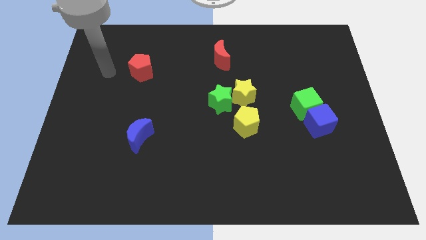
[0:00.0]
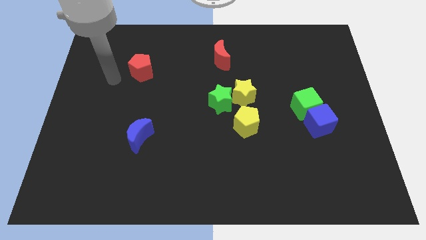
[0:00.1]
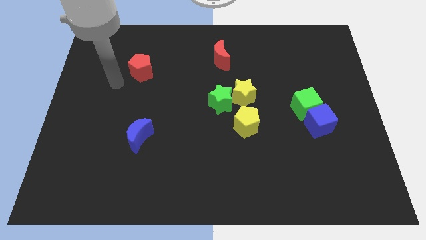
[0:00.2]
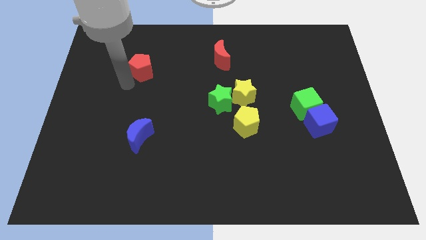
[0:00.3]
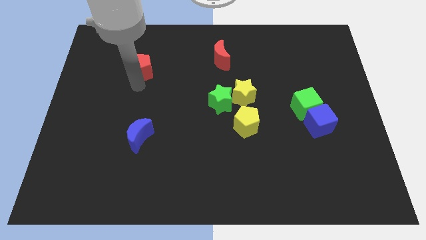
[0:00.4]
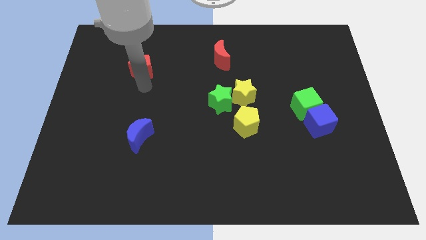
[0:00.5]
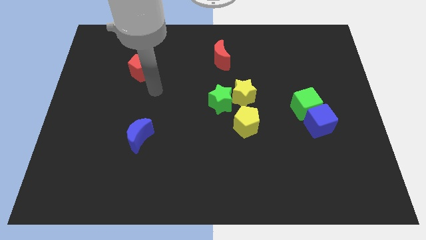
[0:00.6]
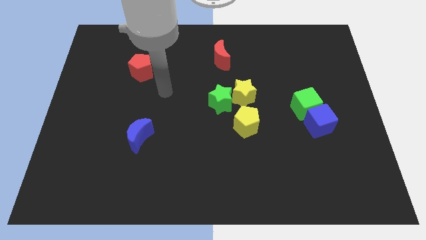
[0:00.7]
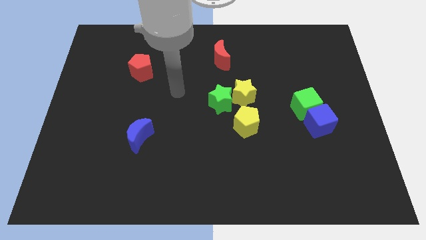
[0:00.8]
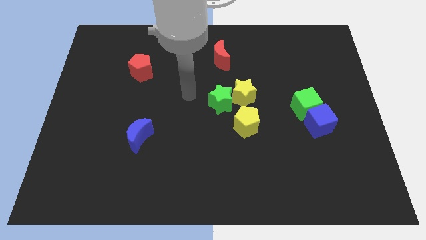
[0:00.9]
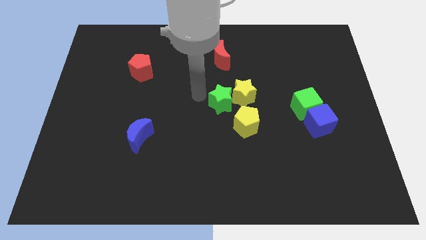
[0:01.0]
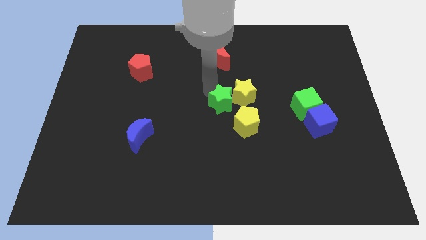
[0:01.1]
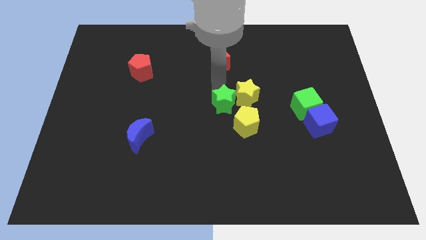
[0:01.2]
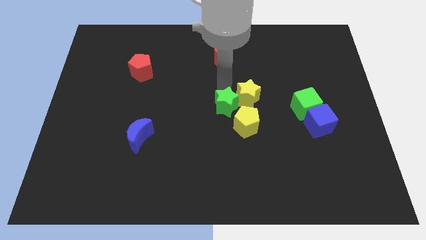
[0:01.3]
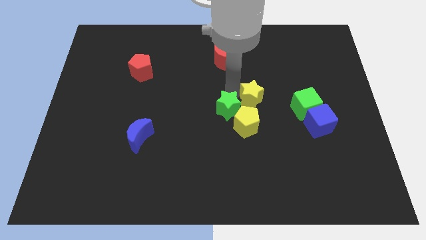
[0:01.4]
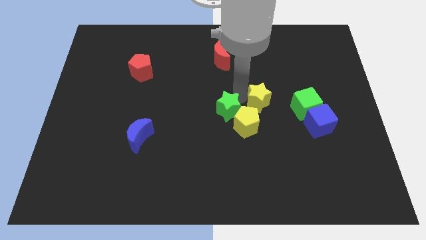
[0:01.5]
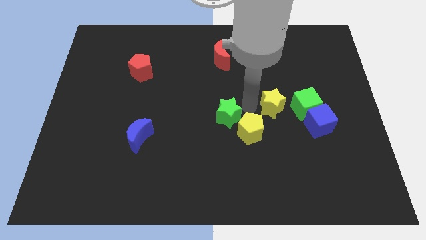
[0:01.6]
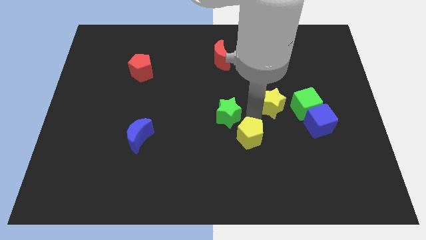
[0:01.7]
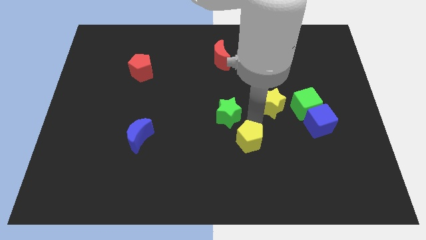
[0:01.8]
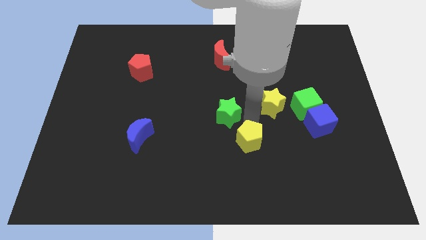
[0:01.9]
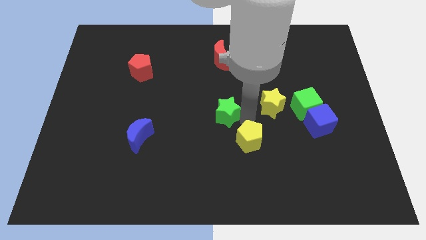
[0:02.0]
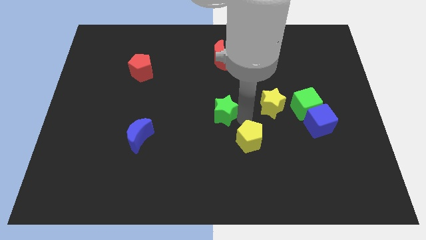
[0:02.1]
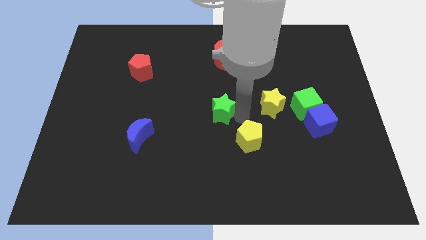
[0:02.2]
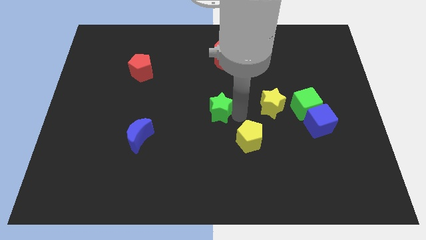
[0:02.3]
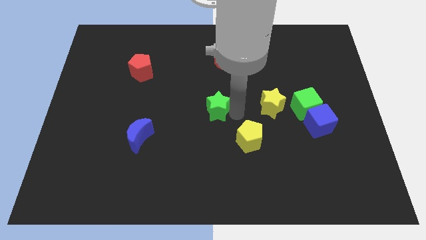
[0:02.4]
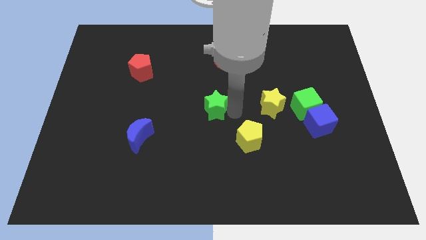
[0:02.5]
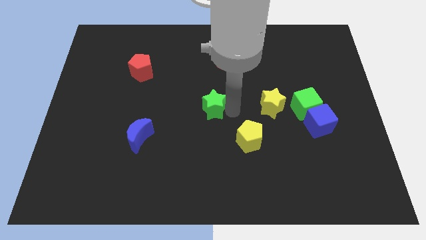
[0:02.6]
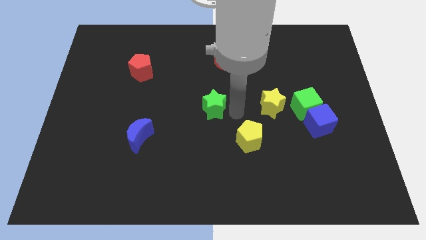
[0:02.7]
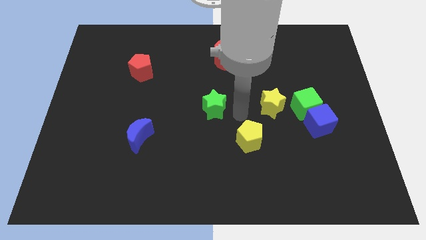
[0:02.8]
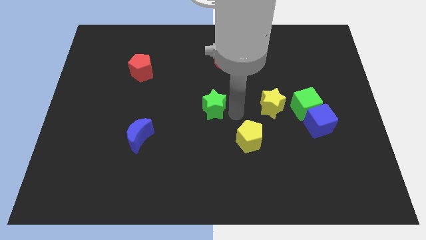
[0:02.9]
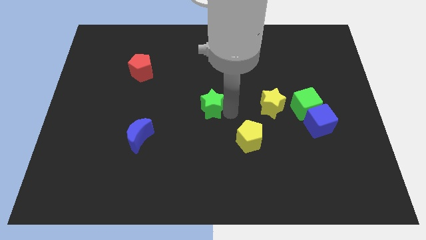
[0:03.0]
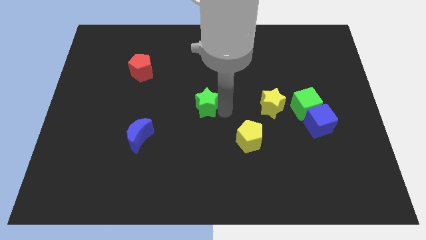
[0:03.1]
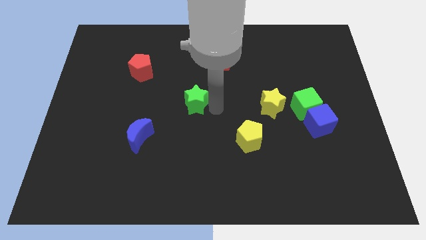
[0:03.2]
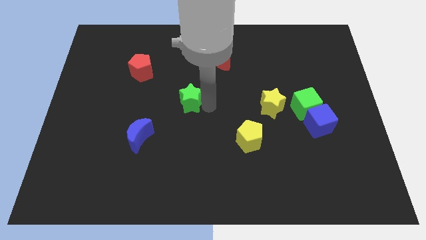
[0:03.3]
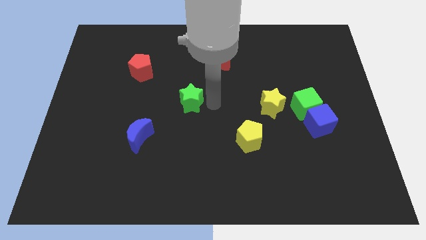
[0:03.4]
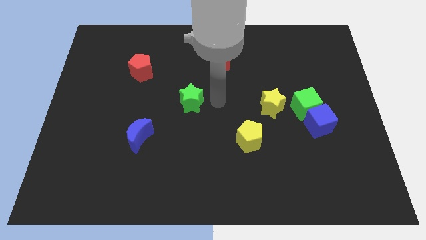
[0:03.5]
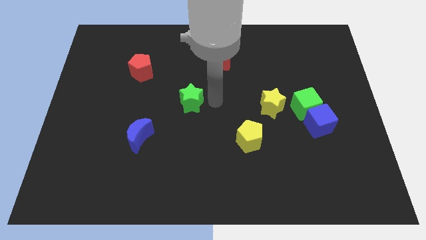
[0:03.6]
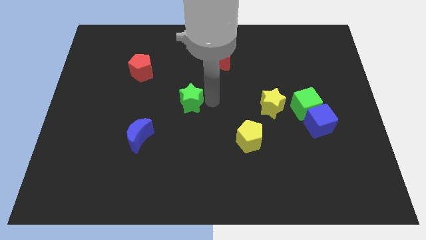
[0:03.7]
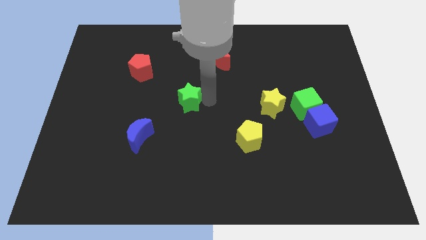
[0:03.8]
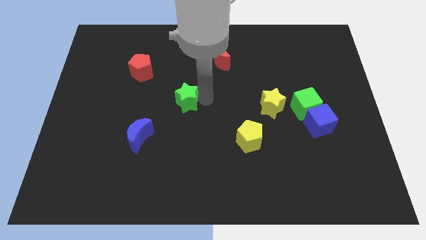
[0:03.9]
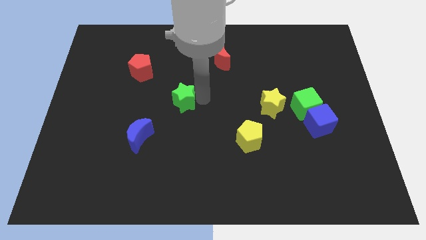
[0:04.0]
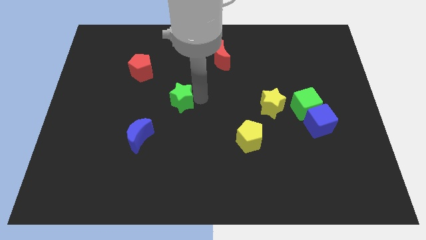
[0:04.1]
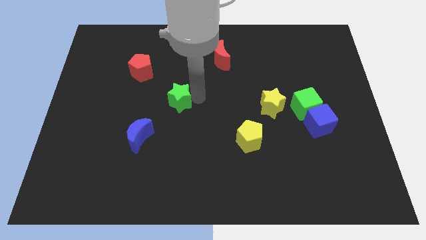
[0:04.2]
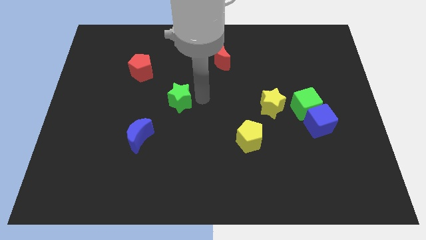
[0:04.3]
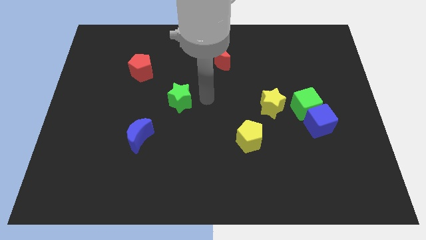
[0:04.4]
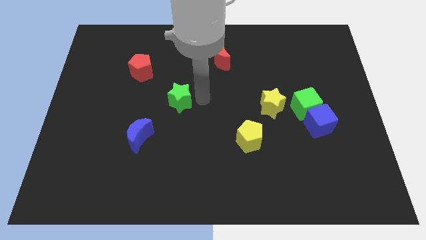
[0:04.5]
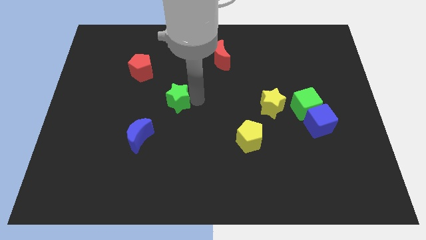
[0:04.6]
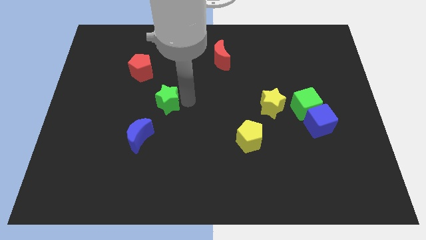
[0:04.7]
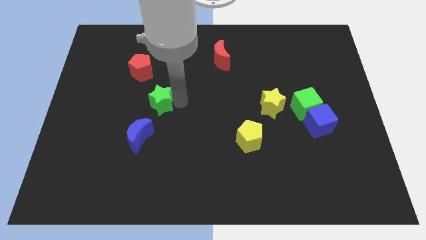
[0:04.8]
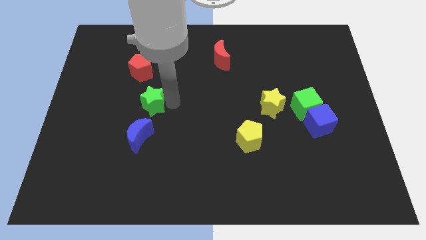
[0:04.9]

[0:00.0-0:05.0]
push the green star below the red pentagon

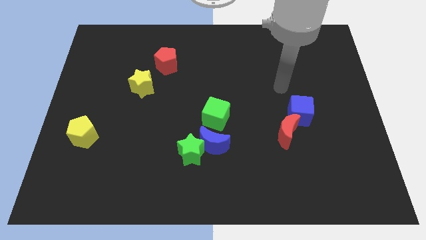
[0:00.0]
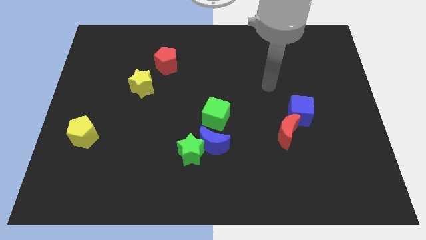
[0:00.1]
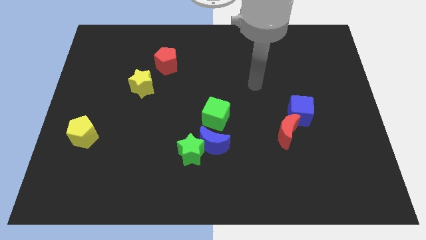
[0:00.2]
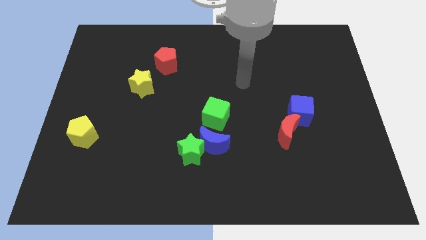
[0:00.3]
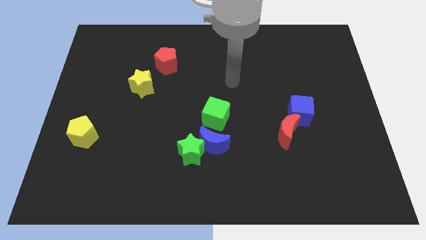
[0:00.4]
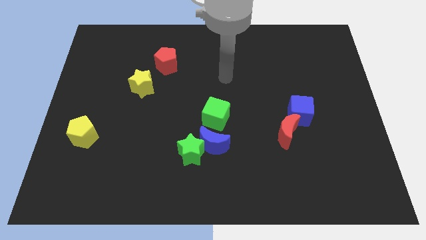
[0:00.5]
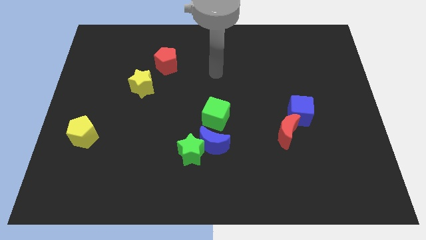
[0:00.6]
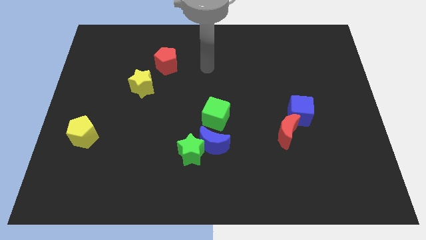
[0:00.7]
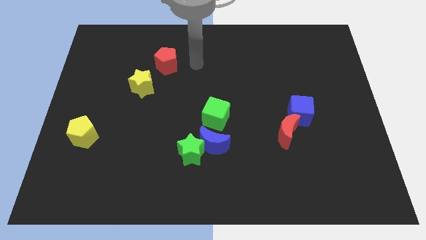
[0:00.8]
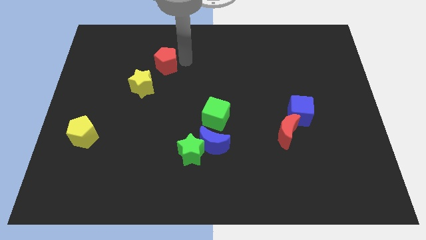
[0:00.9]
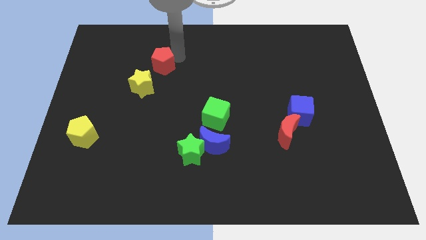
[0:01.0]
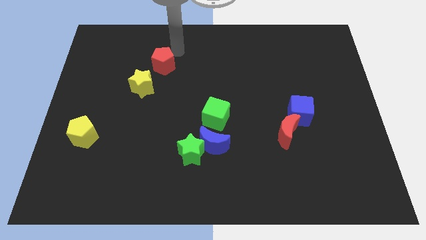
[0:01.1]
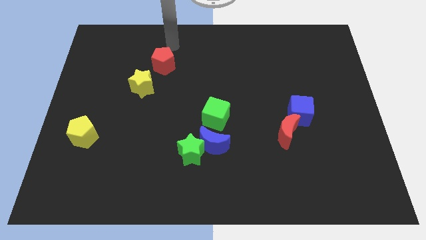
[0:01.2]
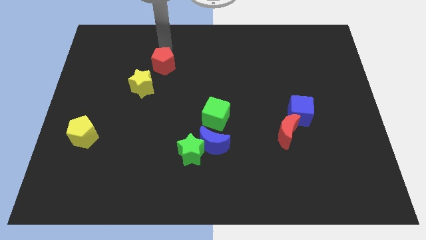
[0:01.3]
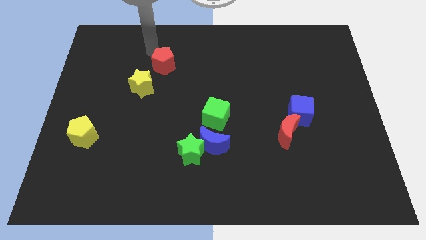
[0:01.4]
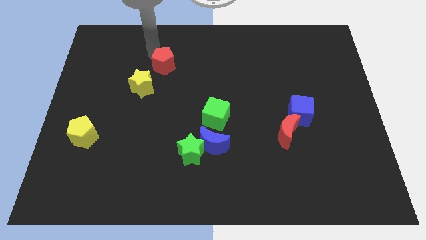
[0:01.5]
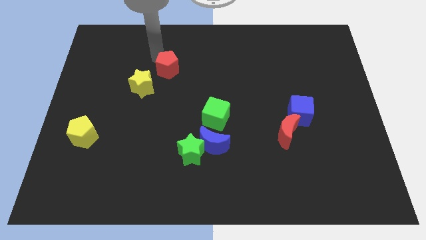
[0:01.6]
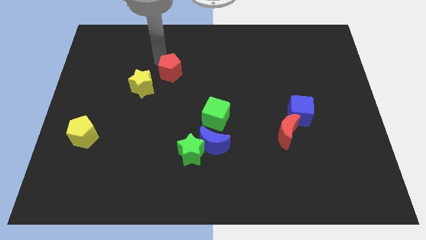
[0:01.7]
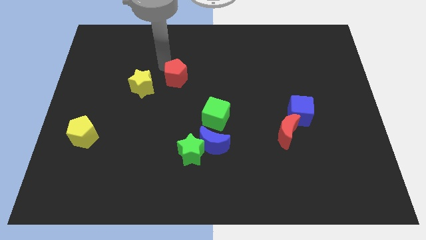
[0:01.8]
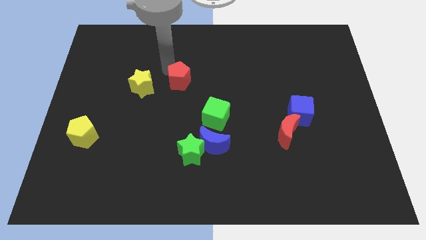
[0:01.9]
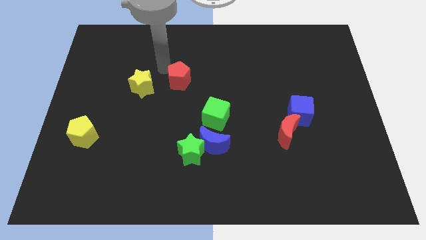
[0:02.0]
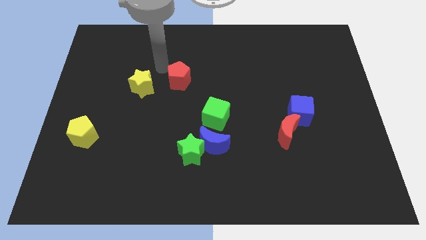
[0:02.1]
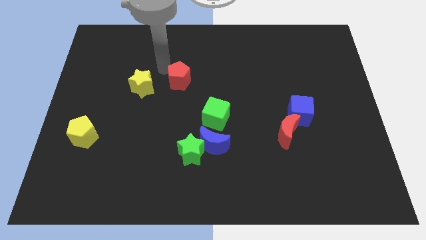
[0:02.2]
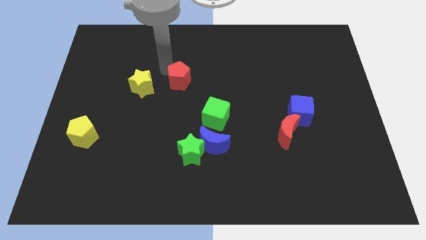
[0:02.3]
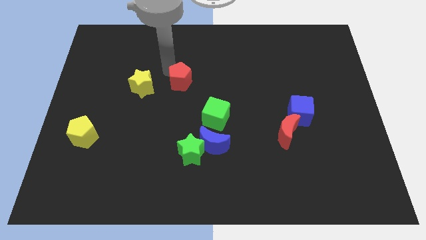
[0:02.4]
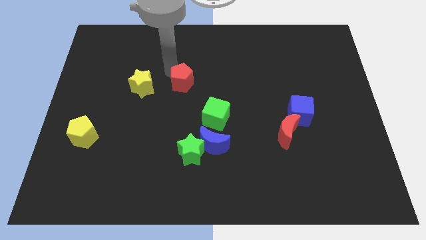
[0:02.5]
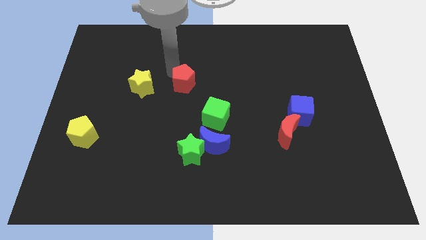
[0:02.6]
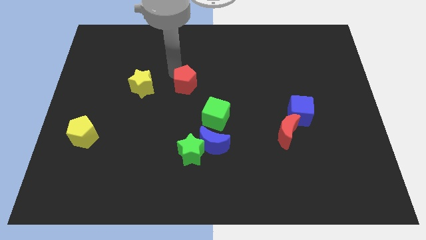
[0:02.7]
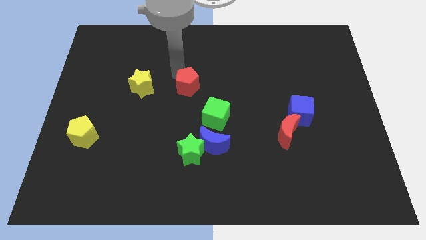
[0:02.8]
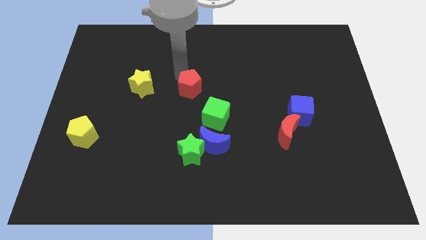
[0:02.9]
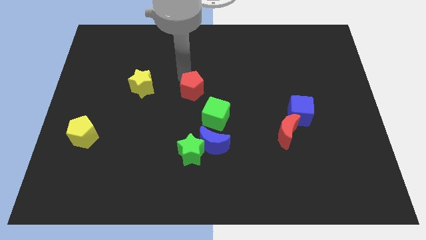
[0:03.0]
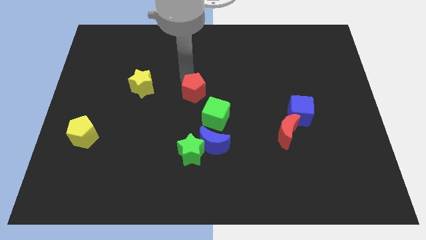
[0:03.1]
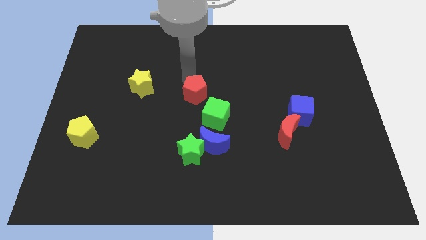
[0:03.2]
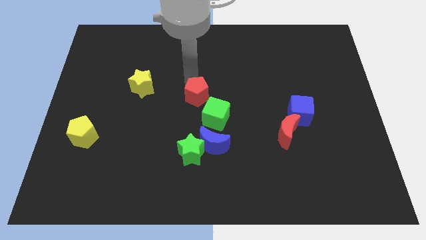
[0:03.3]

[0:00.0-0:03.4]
slide the red pentagon above the blue moon
